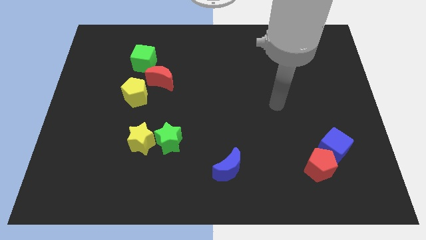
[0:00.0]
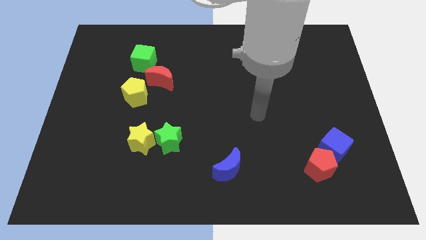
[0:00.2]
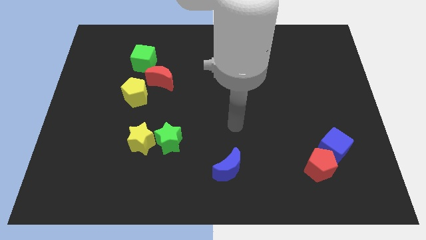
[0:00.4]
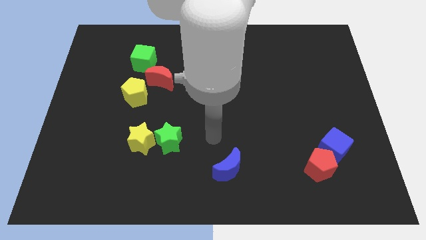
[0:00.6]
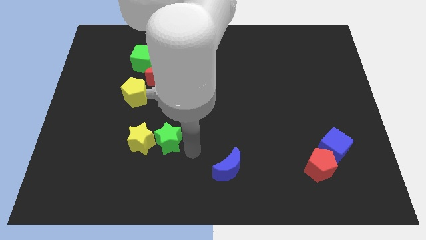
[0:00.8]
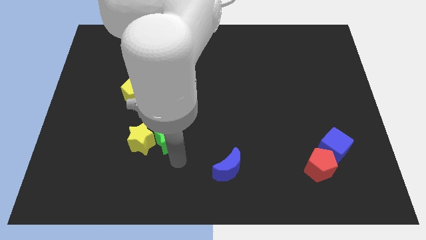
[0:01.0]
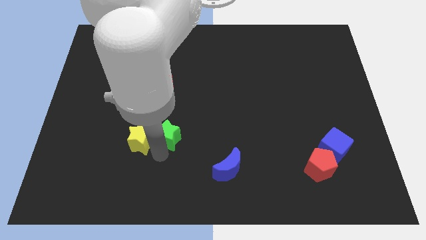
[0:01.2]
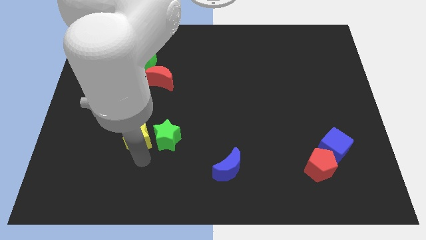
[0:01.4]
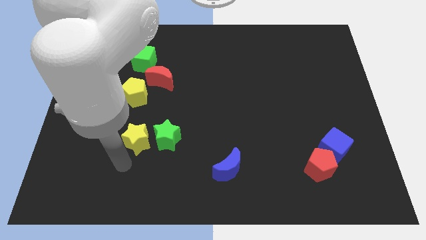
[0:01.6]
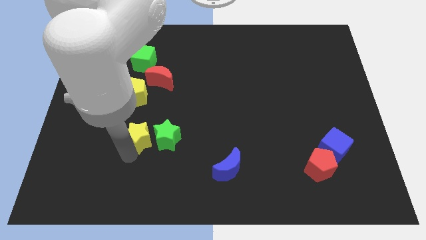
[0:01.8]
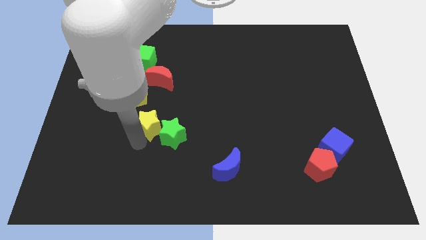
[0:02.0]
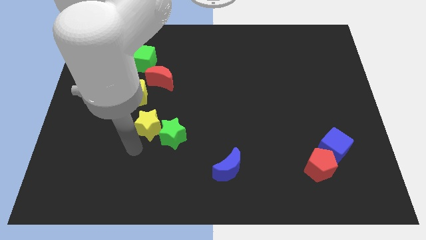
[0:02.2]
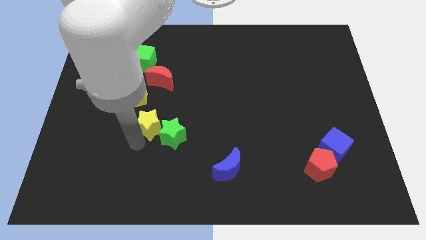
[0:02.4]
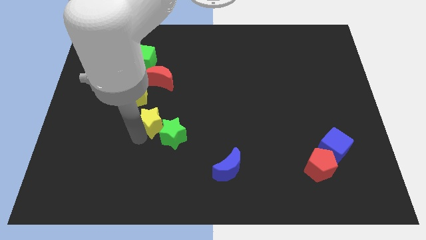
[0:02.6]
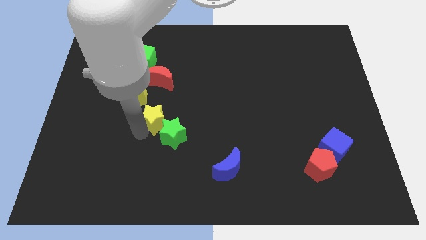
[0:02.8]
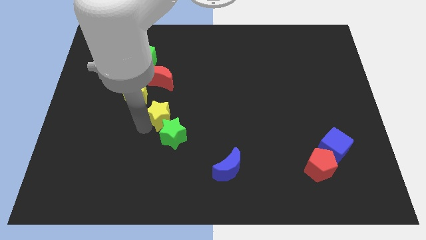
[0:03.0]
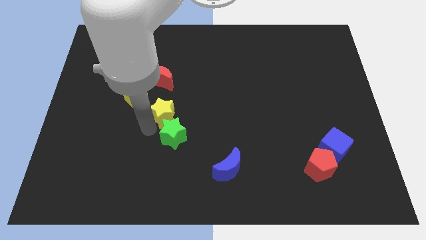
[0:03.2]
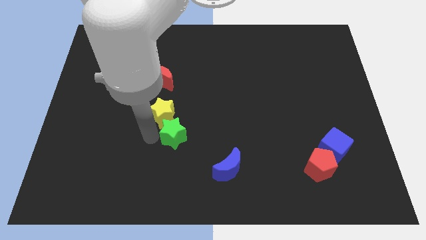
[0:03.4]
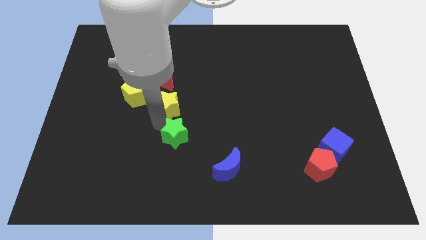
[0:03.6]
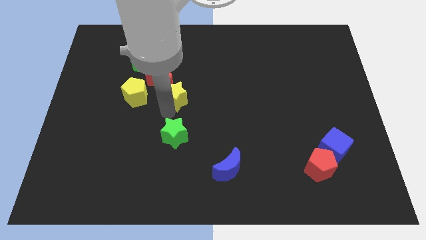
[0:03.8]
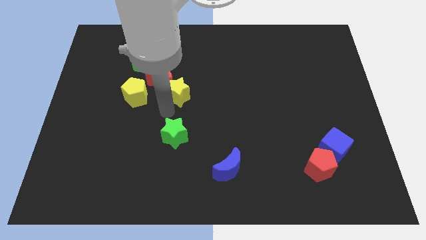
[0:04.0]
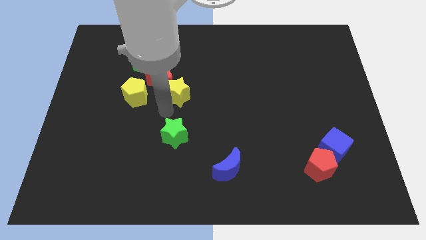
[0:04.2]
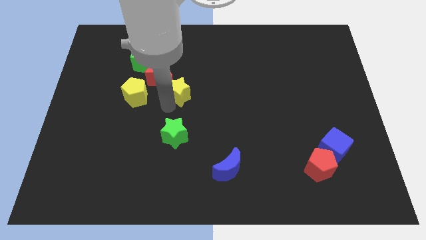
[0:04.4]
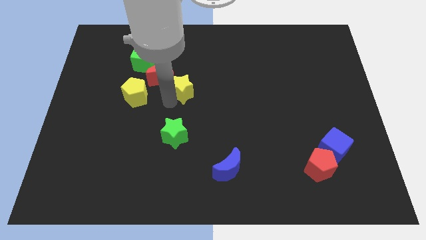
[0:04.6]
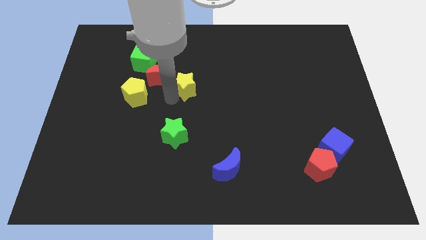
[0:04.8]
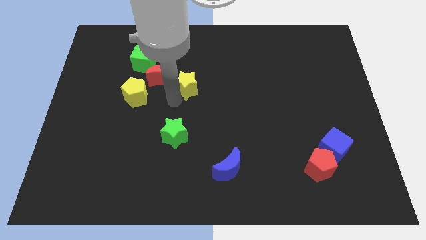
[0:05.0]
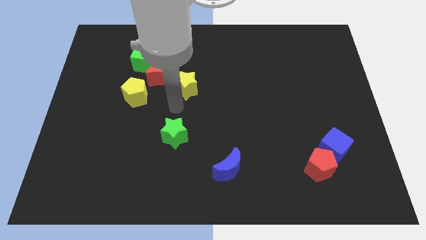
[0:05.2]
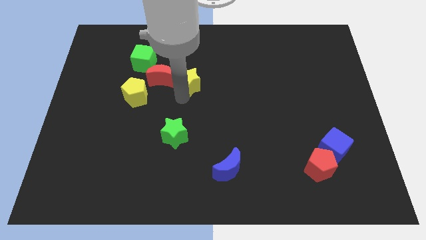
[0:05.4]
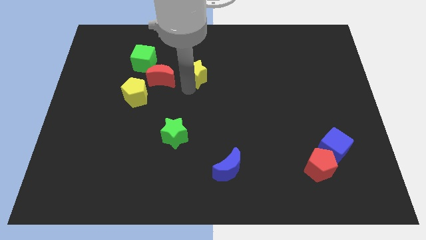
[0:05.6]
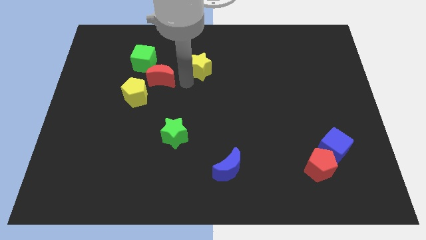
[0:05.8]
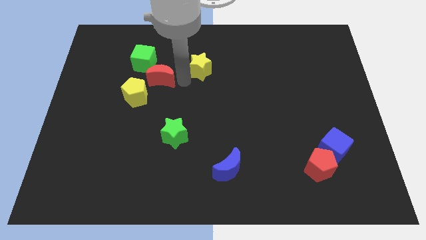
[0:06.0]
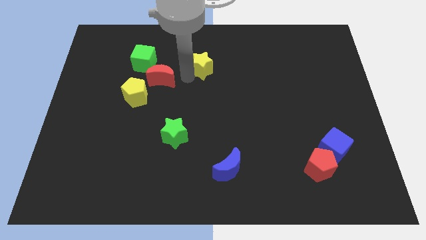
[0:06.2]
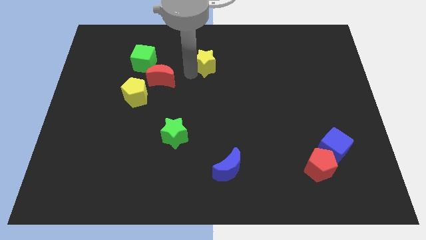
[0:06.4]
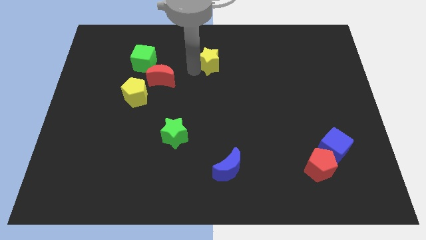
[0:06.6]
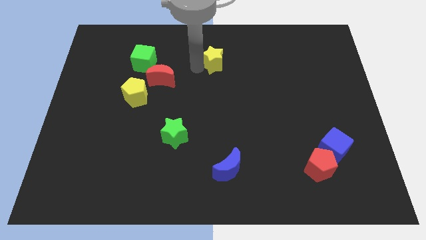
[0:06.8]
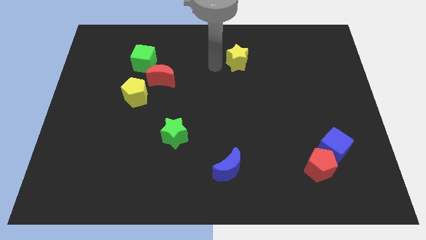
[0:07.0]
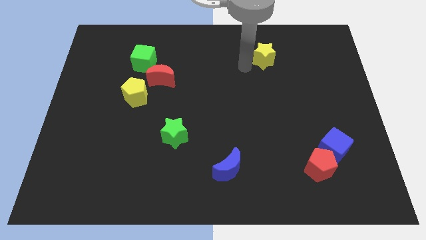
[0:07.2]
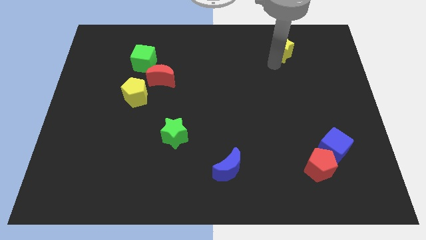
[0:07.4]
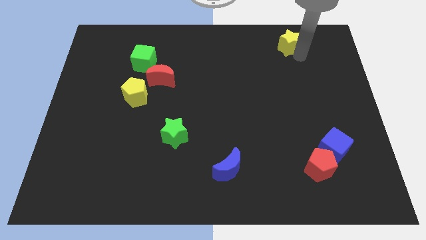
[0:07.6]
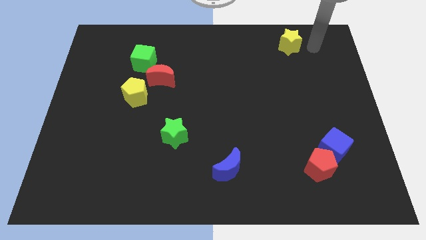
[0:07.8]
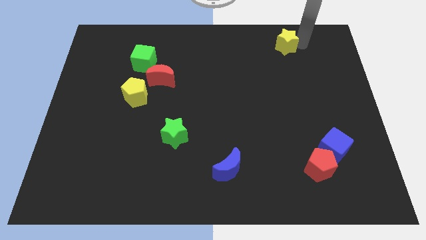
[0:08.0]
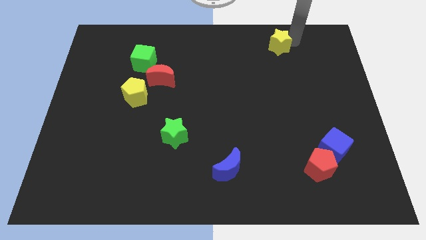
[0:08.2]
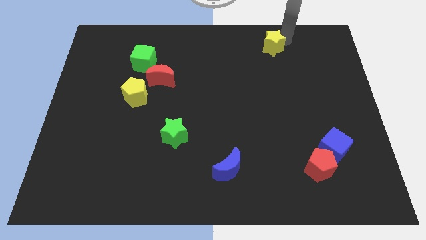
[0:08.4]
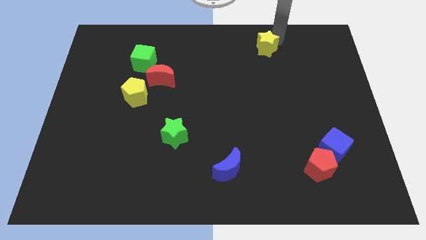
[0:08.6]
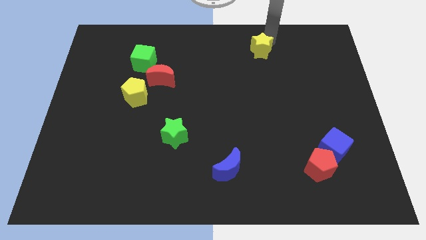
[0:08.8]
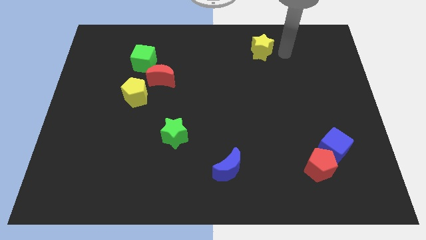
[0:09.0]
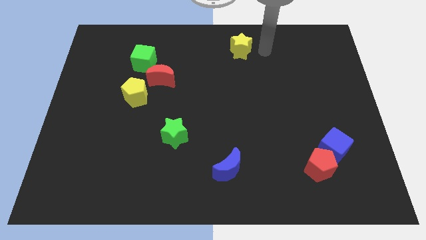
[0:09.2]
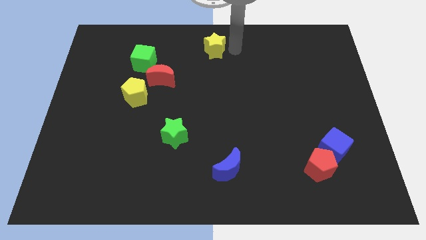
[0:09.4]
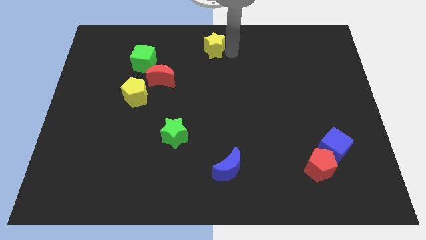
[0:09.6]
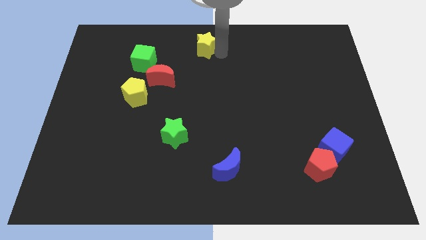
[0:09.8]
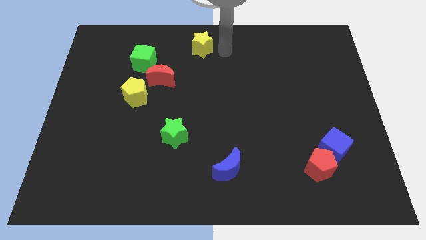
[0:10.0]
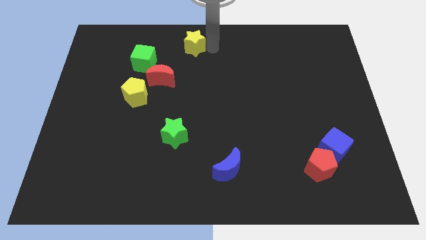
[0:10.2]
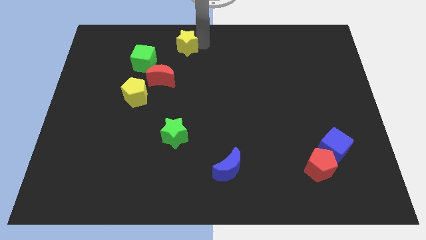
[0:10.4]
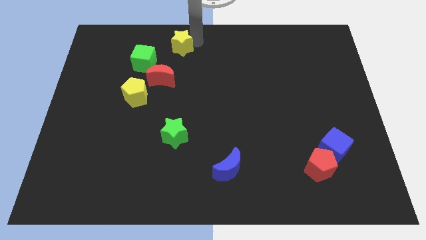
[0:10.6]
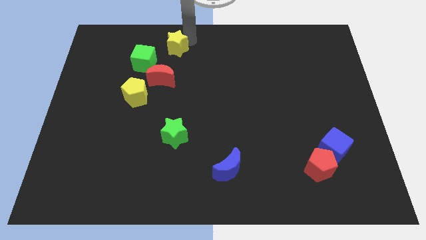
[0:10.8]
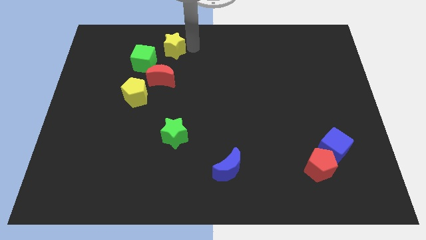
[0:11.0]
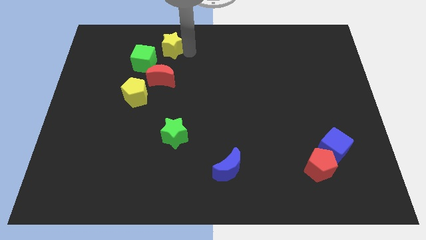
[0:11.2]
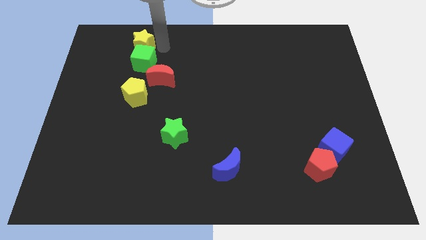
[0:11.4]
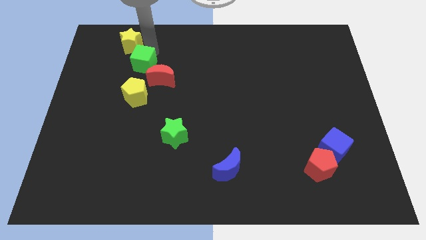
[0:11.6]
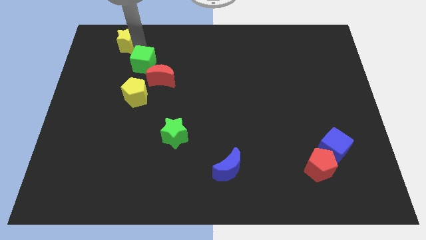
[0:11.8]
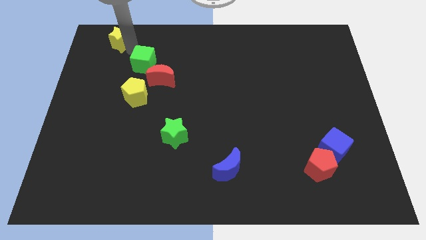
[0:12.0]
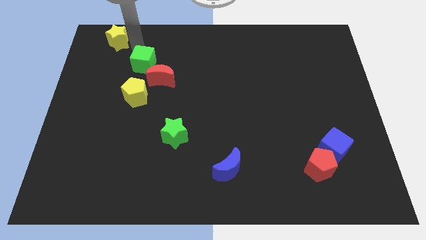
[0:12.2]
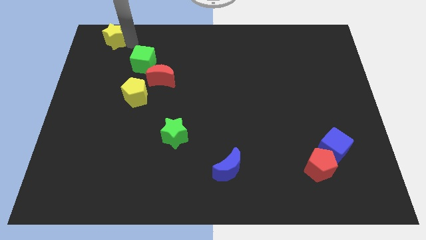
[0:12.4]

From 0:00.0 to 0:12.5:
push the yellow star to the top left corner
